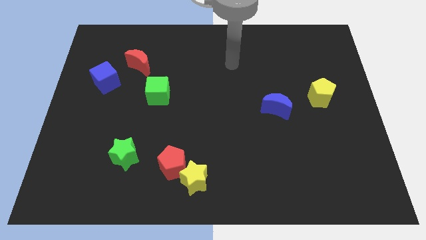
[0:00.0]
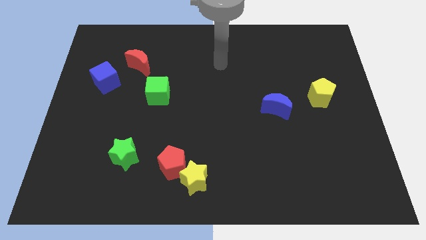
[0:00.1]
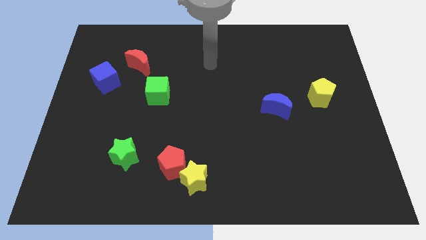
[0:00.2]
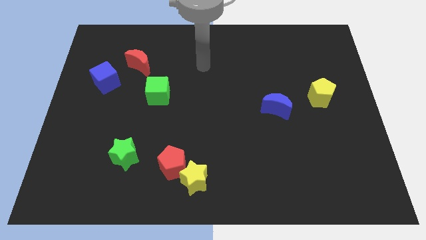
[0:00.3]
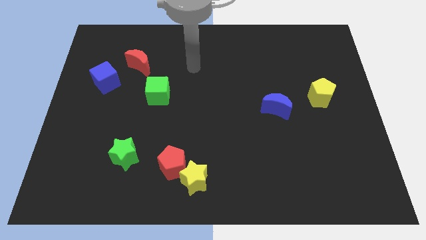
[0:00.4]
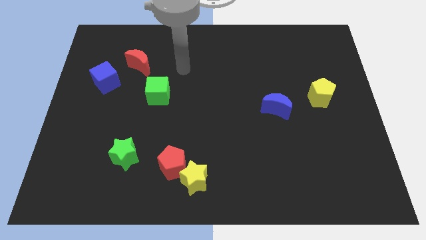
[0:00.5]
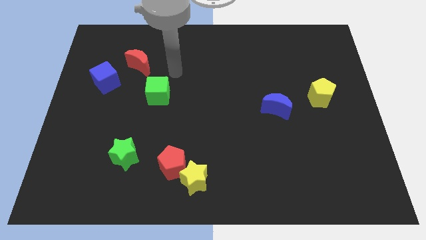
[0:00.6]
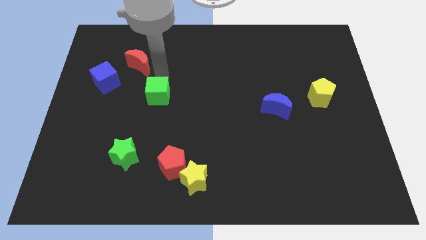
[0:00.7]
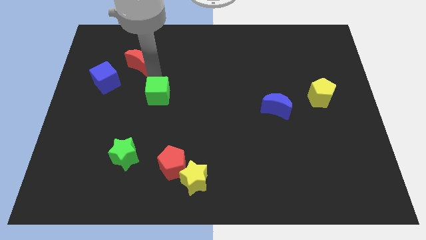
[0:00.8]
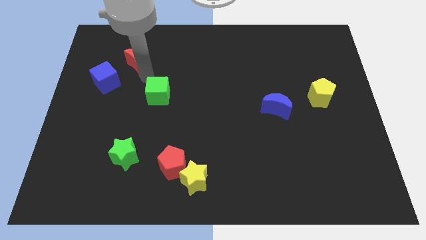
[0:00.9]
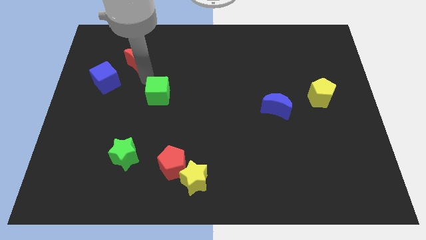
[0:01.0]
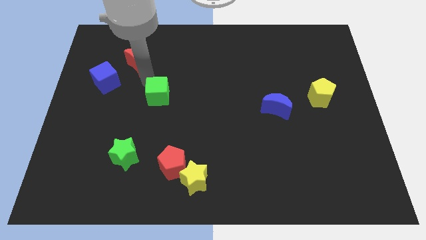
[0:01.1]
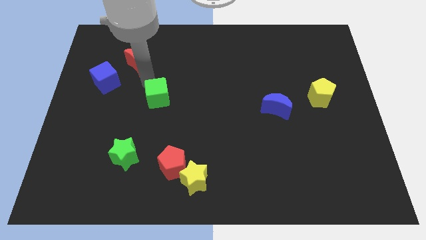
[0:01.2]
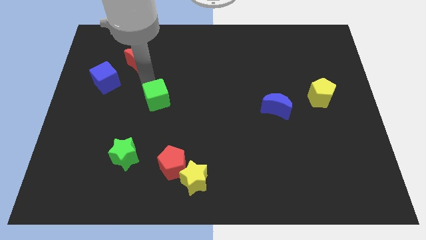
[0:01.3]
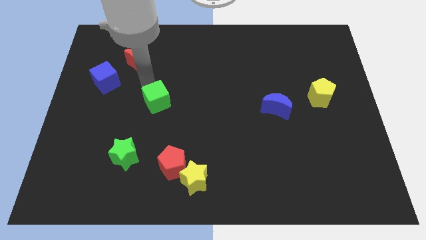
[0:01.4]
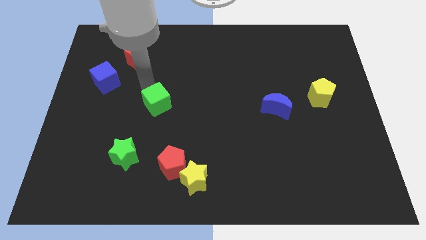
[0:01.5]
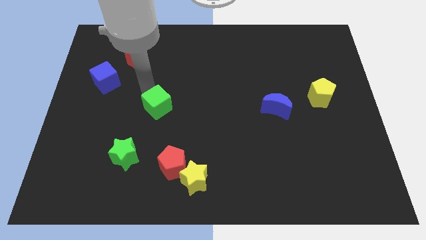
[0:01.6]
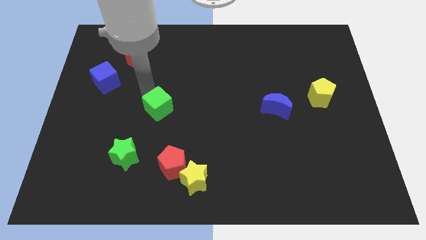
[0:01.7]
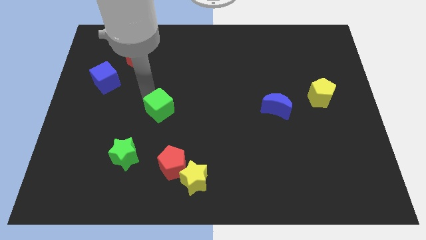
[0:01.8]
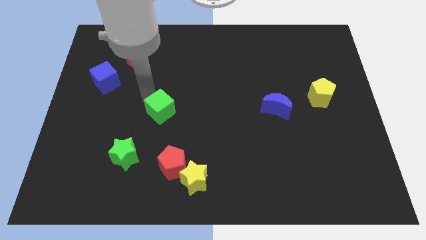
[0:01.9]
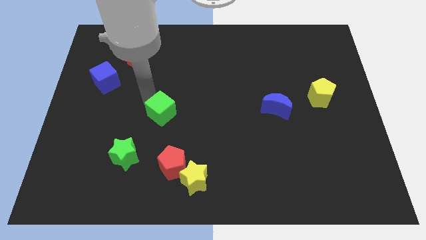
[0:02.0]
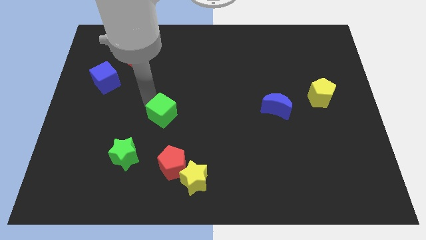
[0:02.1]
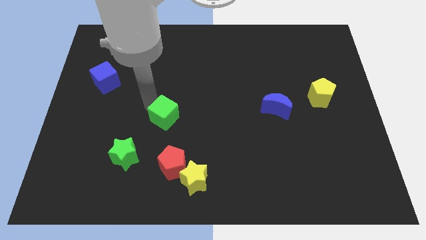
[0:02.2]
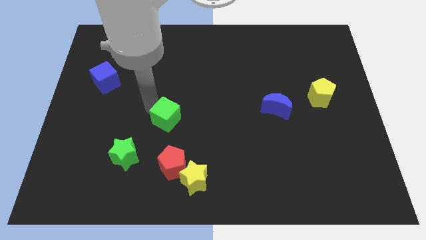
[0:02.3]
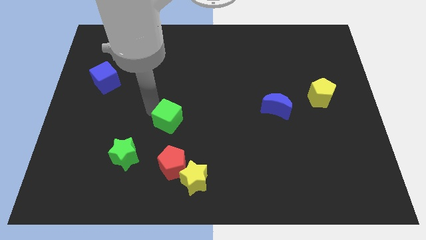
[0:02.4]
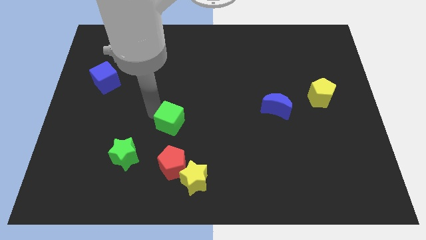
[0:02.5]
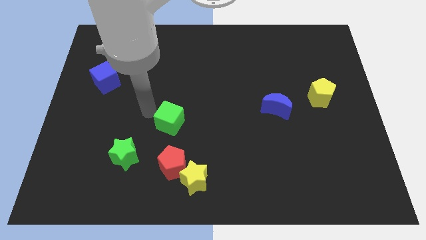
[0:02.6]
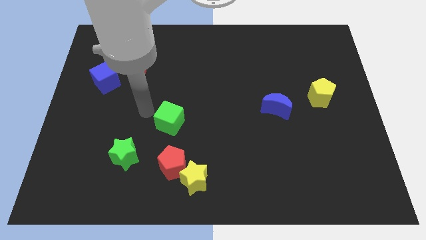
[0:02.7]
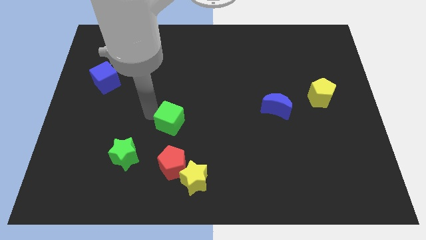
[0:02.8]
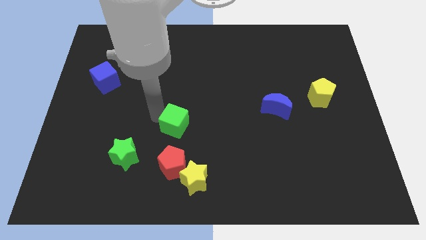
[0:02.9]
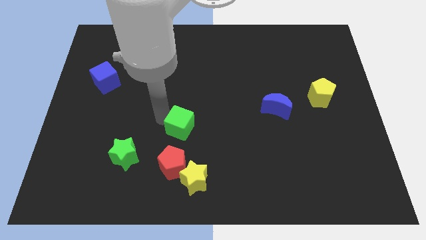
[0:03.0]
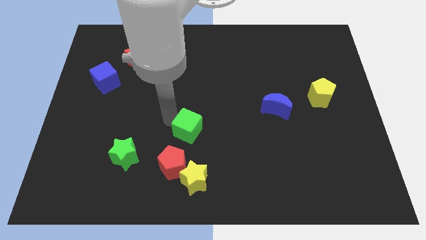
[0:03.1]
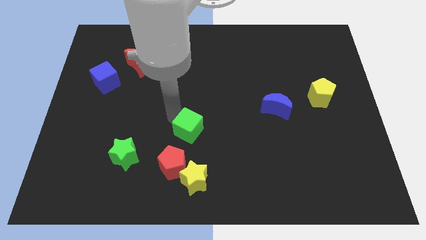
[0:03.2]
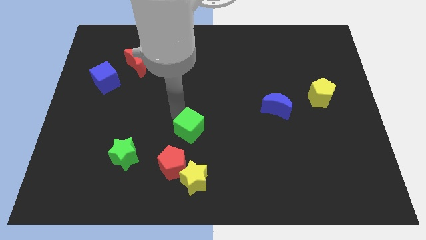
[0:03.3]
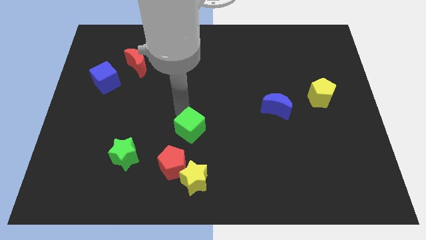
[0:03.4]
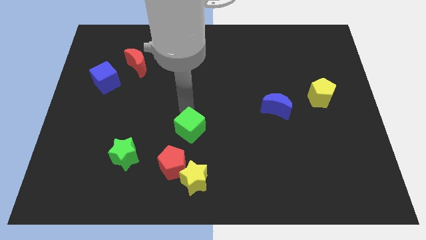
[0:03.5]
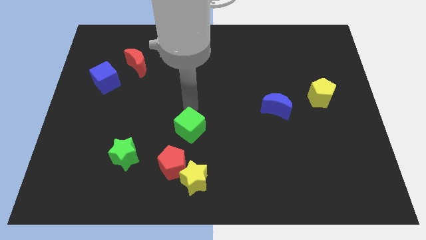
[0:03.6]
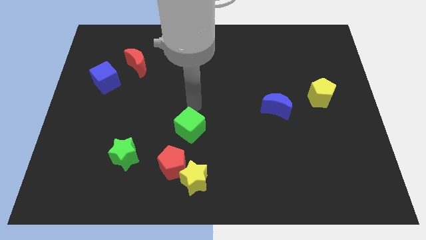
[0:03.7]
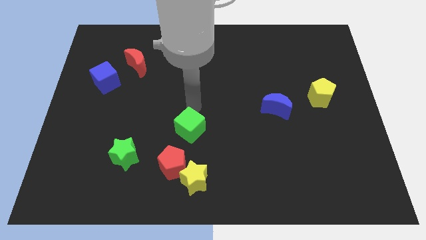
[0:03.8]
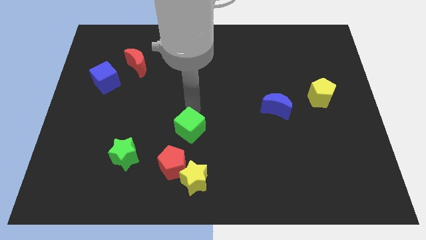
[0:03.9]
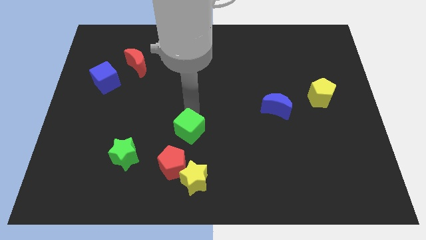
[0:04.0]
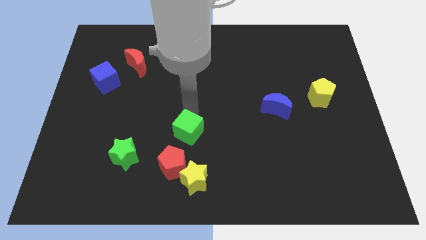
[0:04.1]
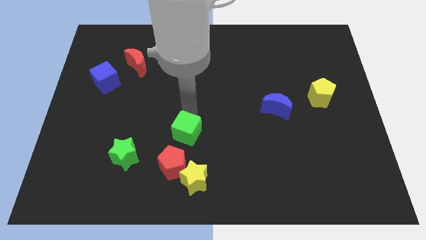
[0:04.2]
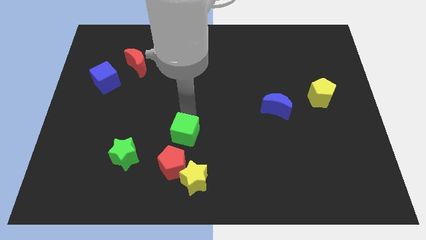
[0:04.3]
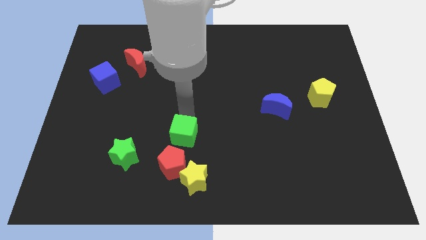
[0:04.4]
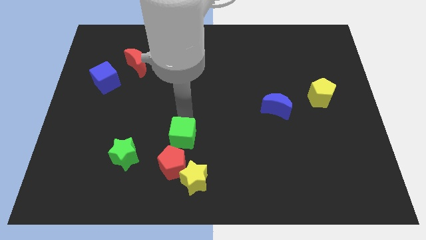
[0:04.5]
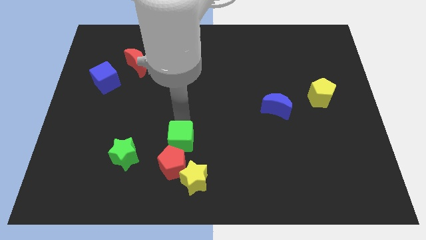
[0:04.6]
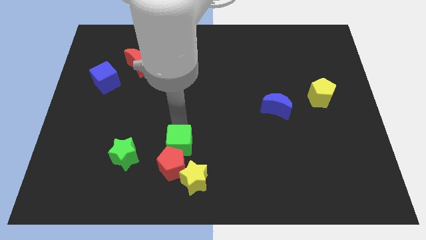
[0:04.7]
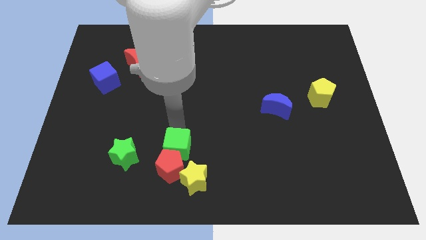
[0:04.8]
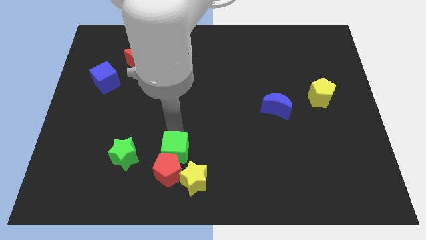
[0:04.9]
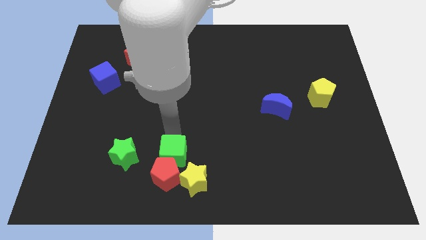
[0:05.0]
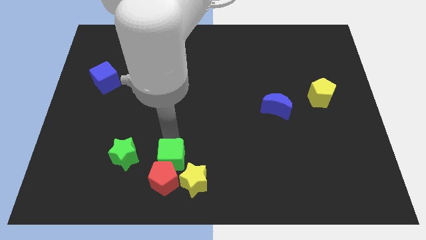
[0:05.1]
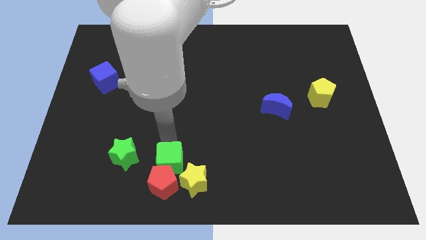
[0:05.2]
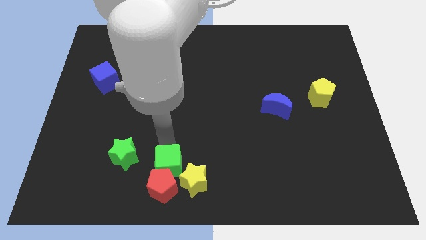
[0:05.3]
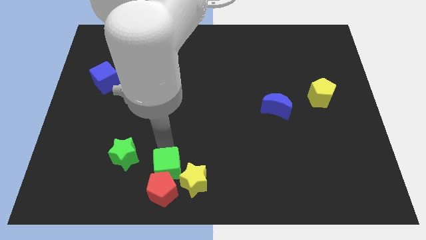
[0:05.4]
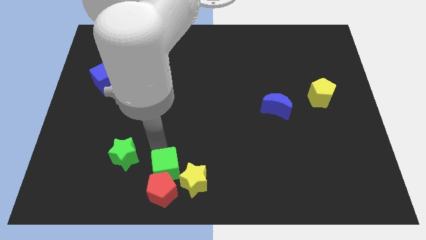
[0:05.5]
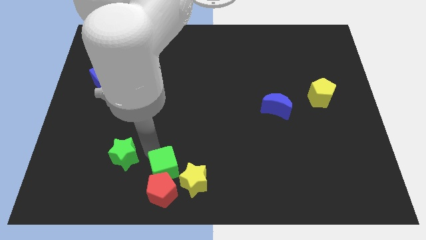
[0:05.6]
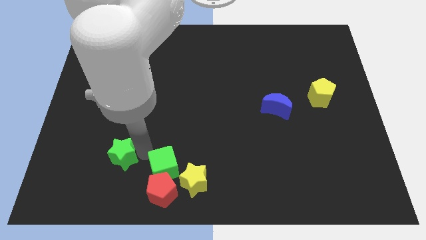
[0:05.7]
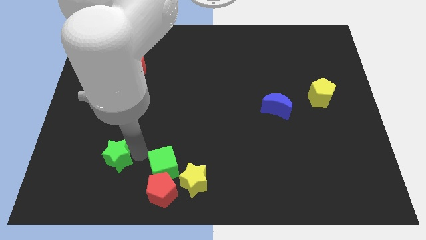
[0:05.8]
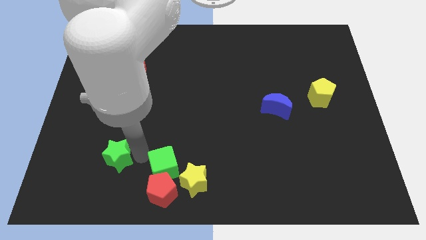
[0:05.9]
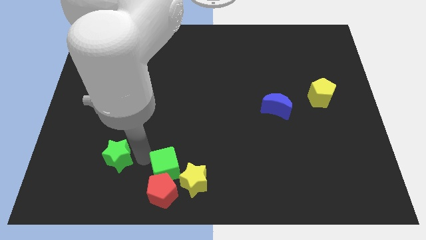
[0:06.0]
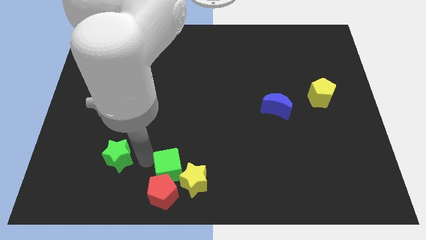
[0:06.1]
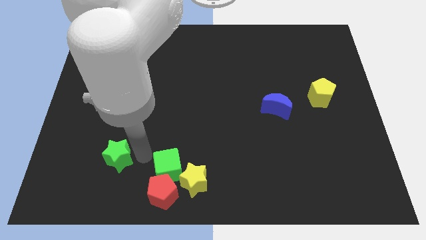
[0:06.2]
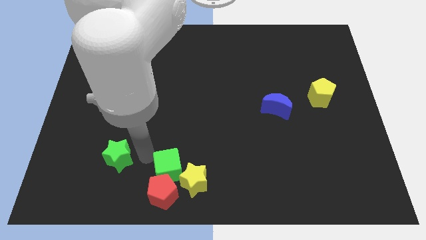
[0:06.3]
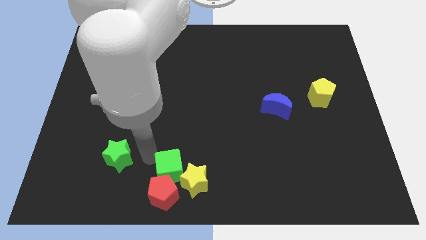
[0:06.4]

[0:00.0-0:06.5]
put the green cube close to the yellow star
